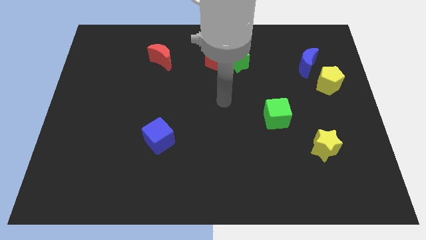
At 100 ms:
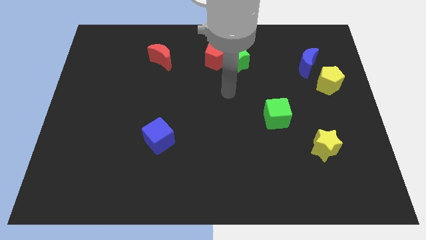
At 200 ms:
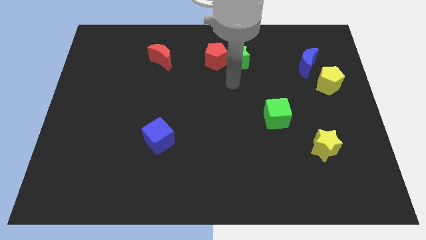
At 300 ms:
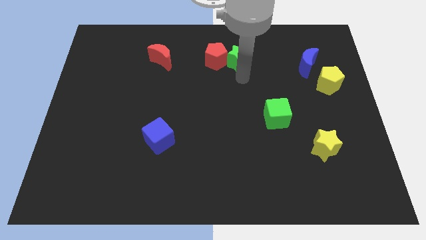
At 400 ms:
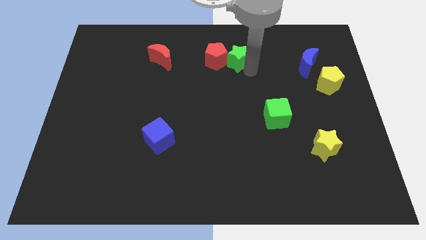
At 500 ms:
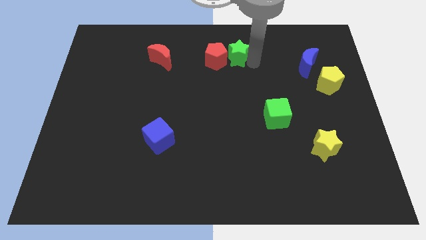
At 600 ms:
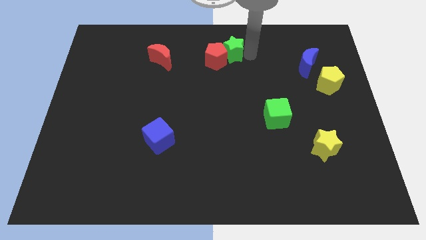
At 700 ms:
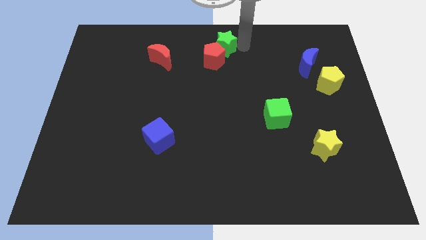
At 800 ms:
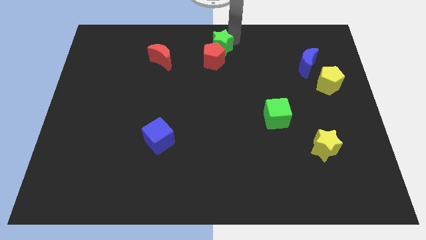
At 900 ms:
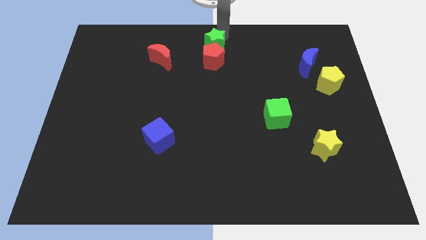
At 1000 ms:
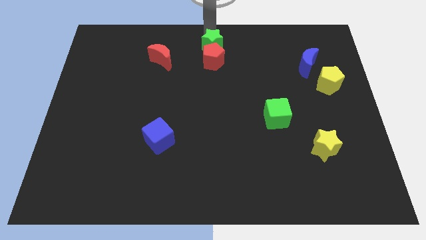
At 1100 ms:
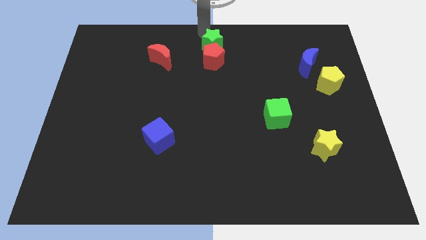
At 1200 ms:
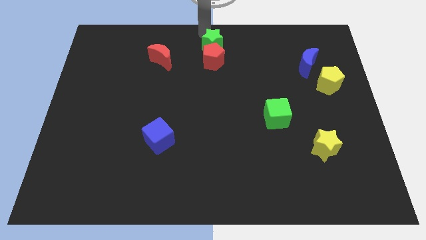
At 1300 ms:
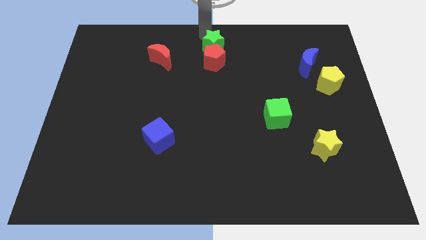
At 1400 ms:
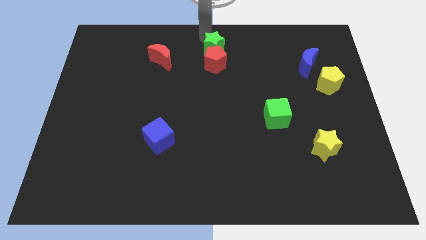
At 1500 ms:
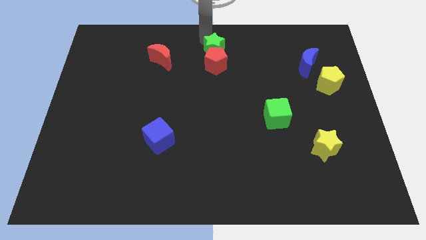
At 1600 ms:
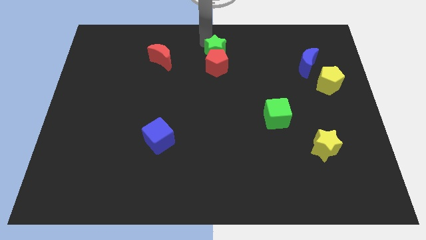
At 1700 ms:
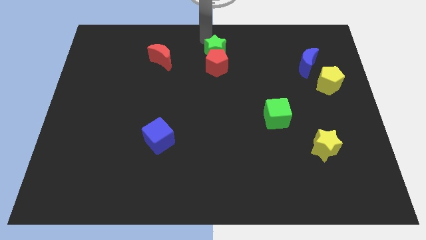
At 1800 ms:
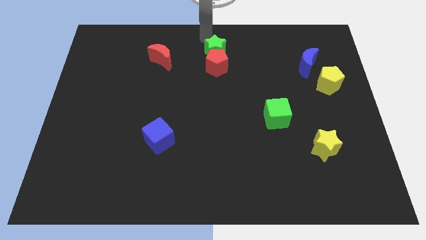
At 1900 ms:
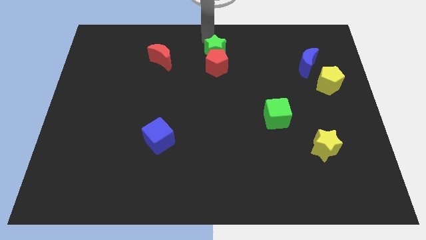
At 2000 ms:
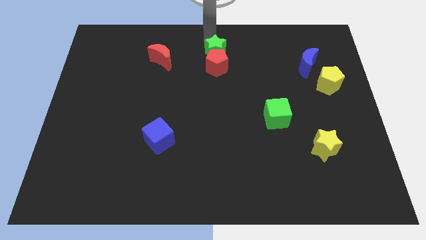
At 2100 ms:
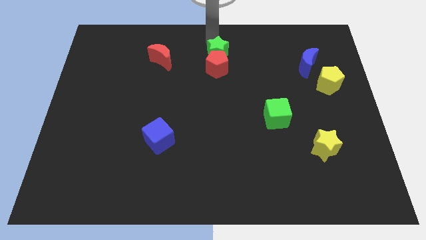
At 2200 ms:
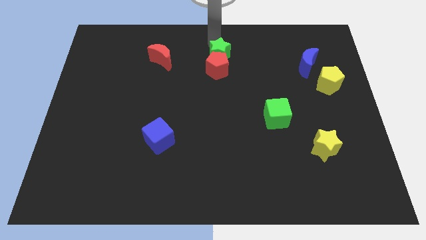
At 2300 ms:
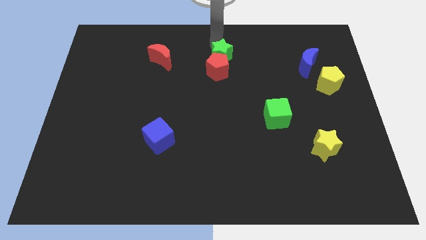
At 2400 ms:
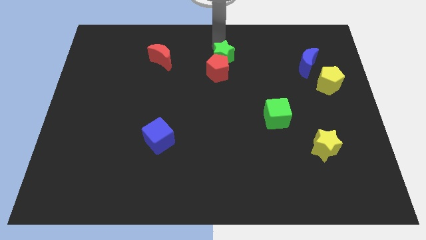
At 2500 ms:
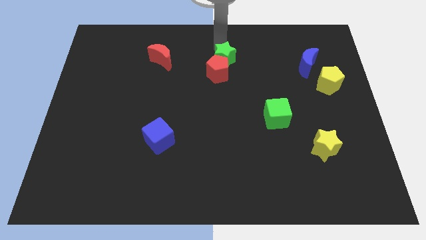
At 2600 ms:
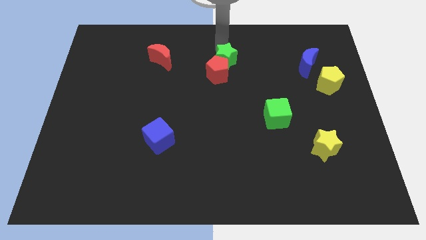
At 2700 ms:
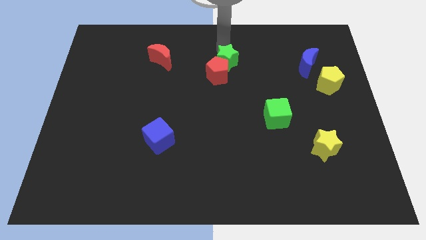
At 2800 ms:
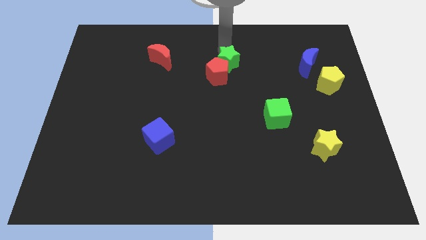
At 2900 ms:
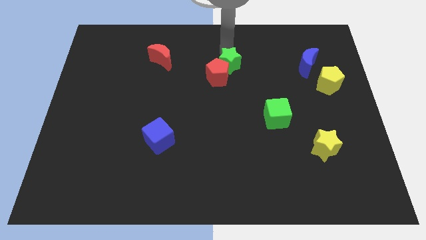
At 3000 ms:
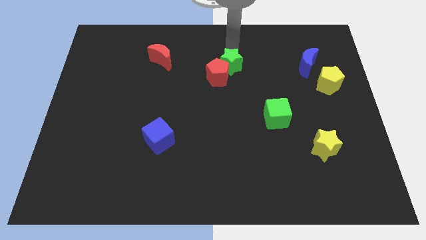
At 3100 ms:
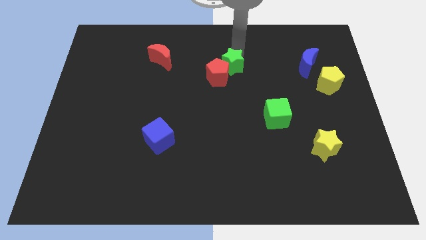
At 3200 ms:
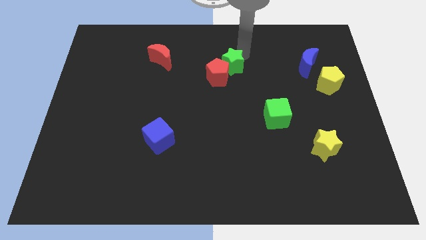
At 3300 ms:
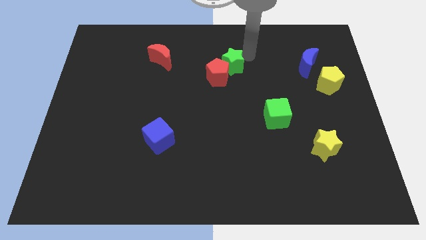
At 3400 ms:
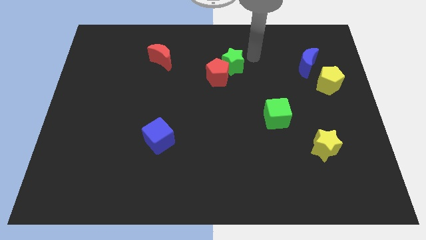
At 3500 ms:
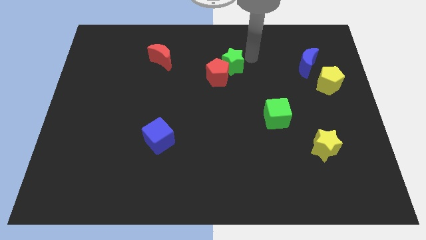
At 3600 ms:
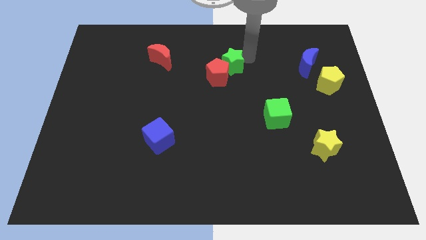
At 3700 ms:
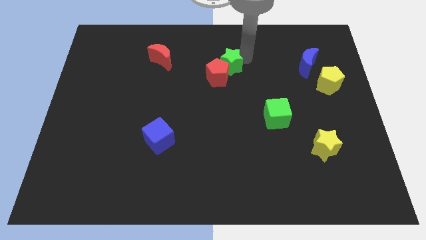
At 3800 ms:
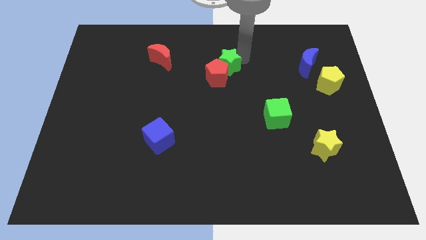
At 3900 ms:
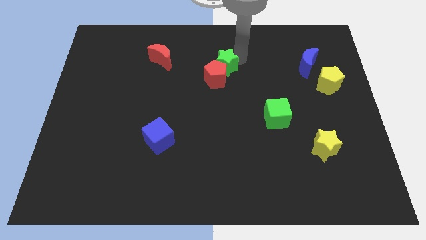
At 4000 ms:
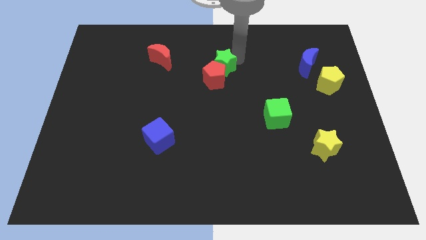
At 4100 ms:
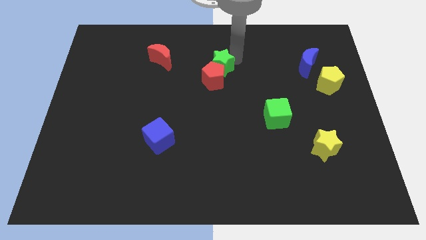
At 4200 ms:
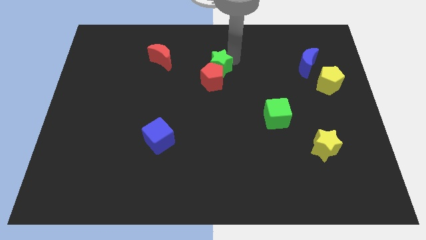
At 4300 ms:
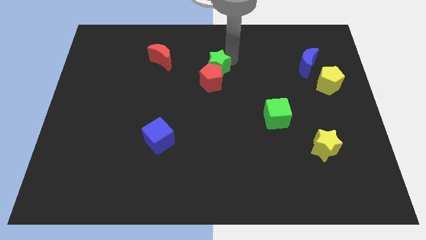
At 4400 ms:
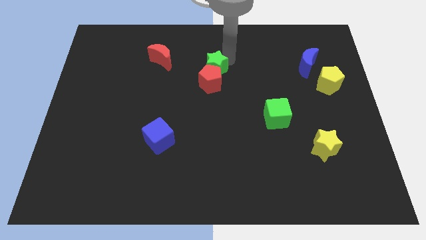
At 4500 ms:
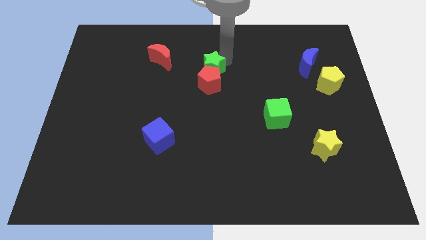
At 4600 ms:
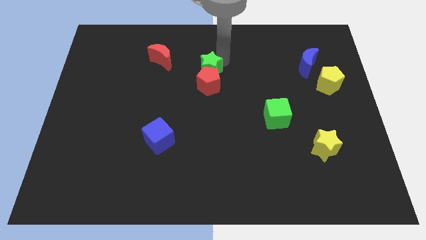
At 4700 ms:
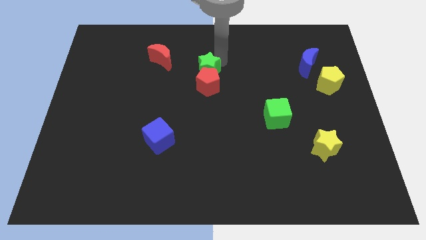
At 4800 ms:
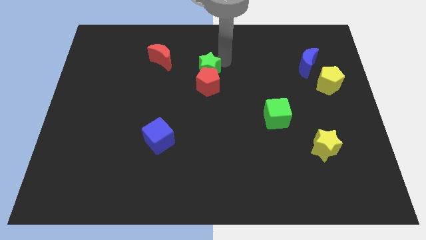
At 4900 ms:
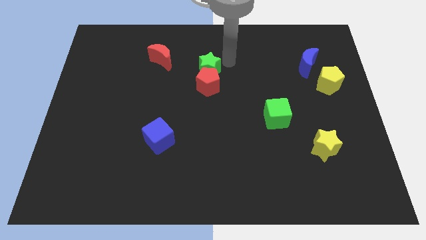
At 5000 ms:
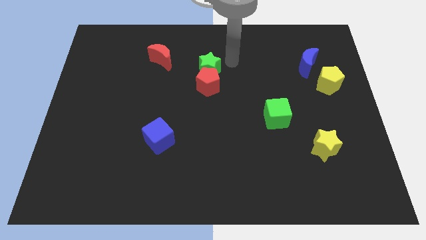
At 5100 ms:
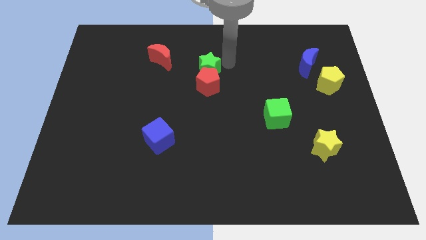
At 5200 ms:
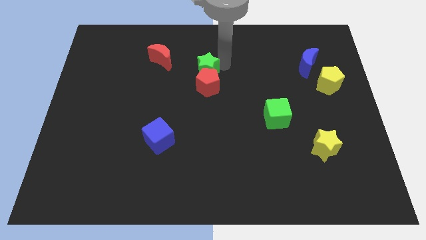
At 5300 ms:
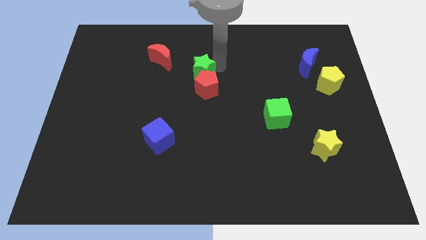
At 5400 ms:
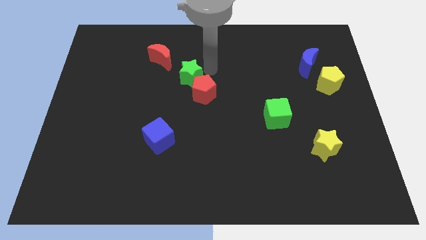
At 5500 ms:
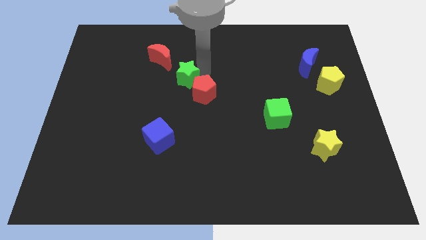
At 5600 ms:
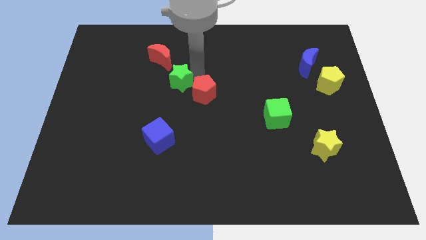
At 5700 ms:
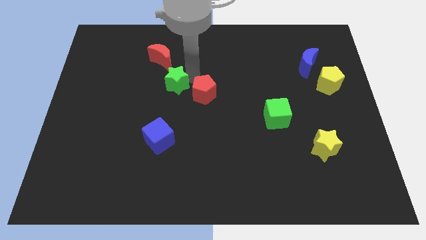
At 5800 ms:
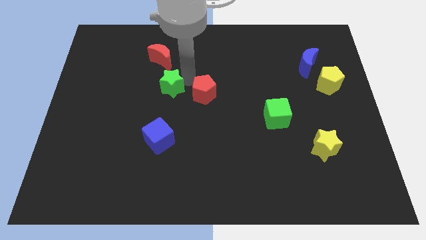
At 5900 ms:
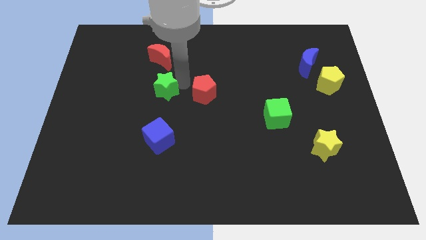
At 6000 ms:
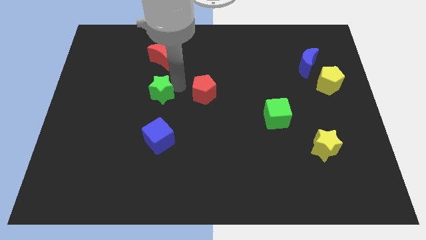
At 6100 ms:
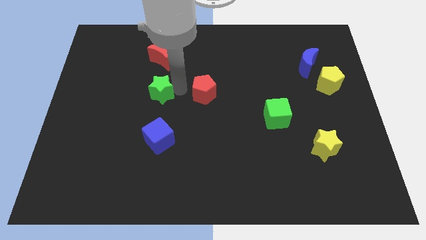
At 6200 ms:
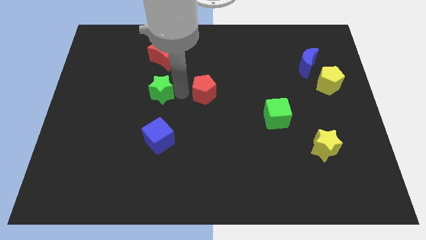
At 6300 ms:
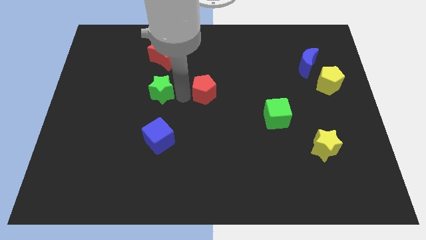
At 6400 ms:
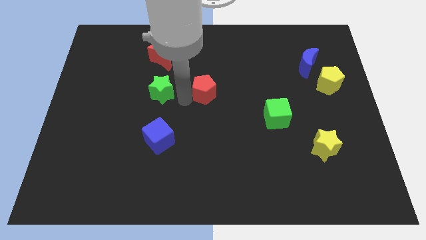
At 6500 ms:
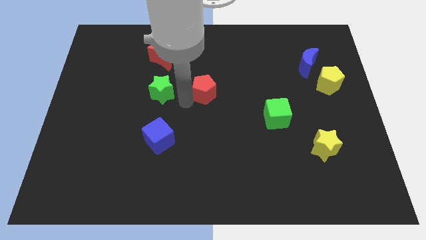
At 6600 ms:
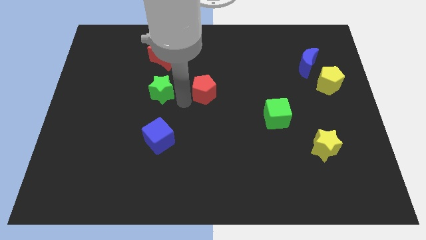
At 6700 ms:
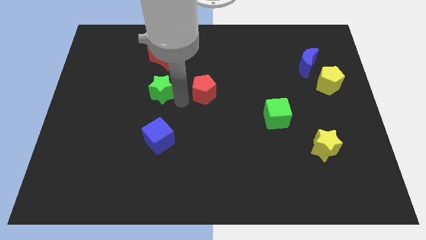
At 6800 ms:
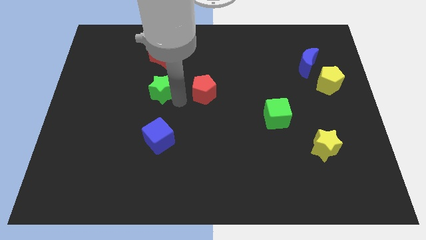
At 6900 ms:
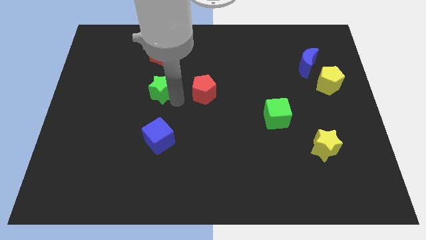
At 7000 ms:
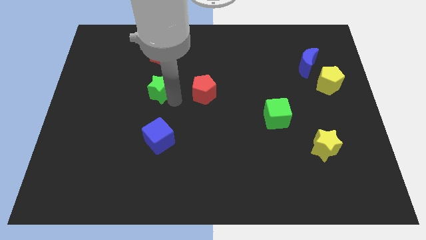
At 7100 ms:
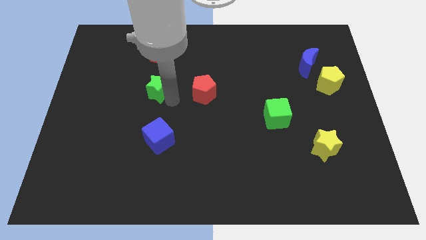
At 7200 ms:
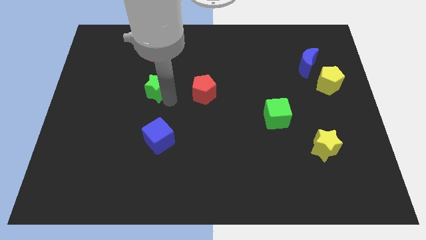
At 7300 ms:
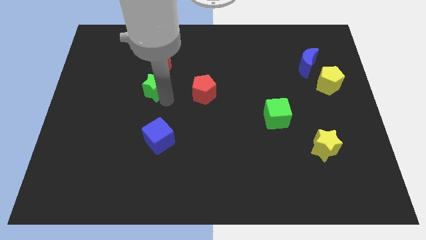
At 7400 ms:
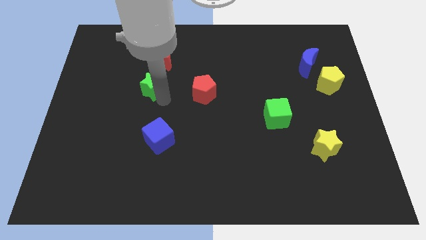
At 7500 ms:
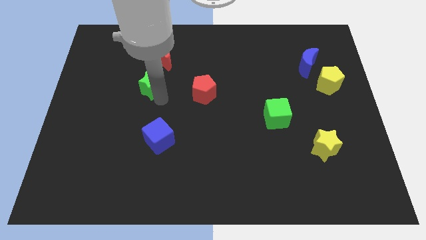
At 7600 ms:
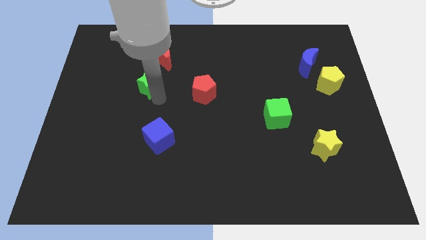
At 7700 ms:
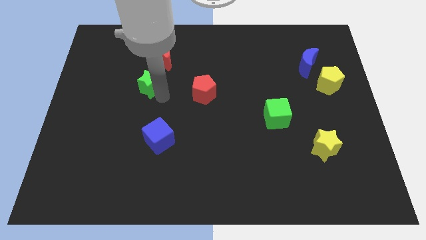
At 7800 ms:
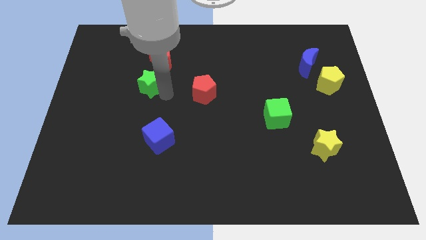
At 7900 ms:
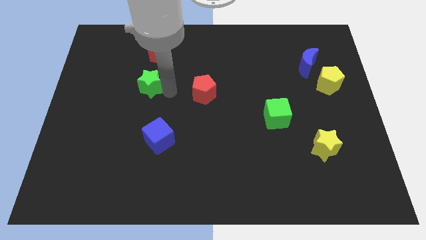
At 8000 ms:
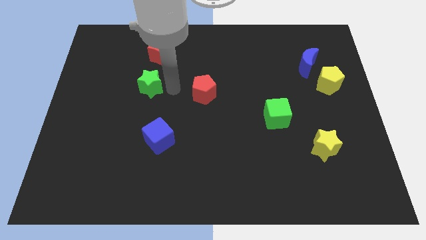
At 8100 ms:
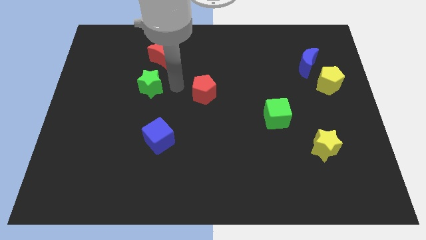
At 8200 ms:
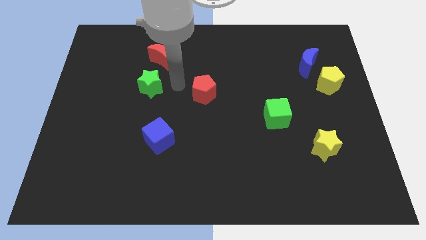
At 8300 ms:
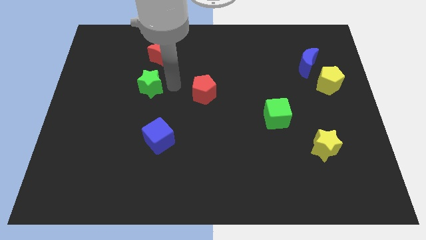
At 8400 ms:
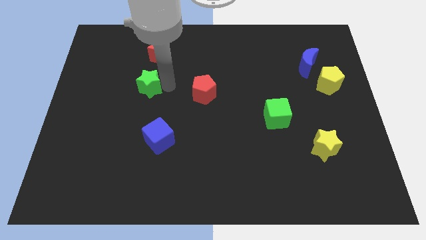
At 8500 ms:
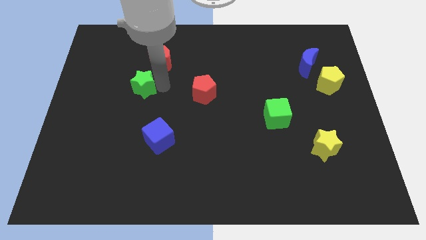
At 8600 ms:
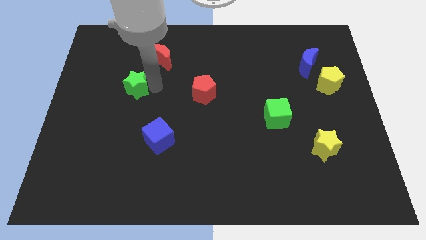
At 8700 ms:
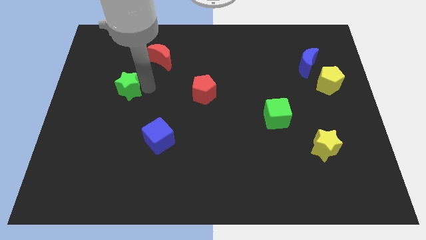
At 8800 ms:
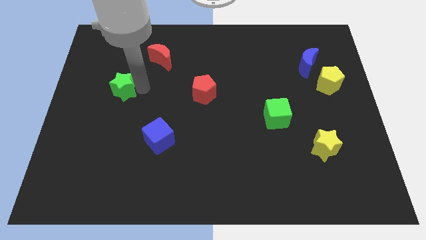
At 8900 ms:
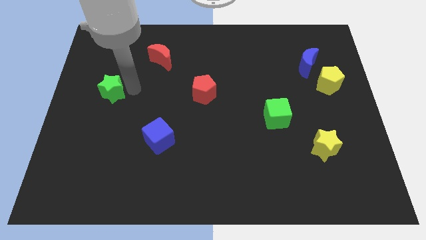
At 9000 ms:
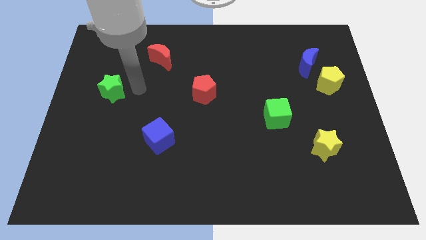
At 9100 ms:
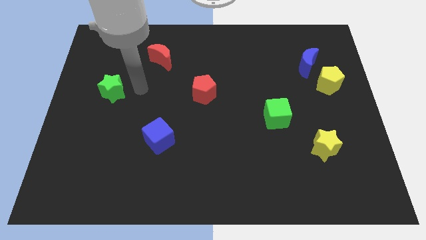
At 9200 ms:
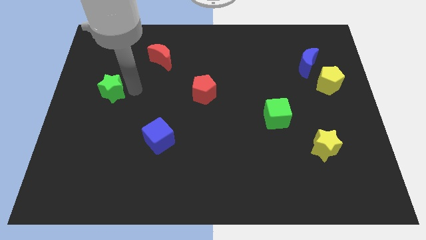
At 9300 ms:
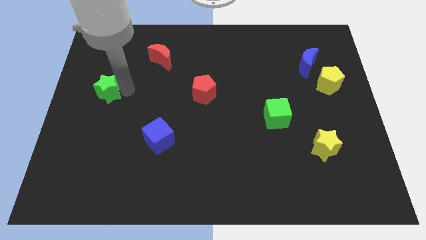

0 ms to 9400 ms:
push the green star to the left side of the board
